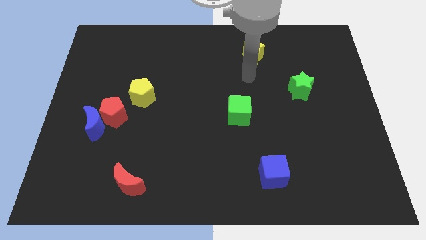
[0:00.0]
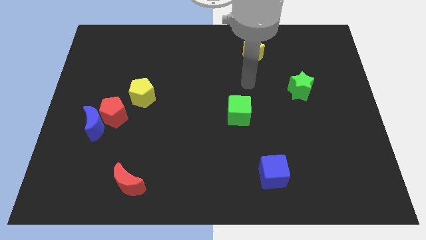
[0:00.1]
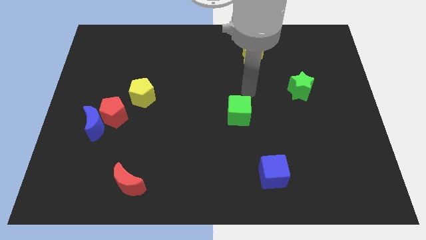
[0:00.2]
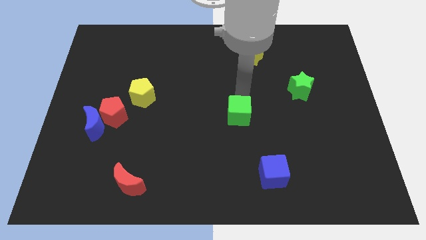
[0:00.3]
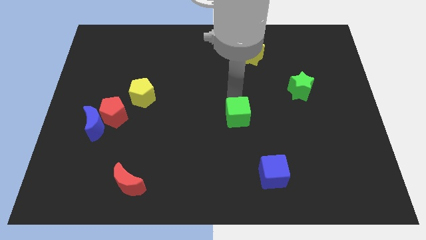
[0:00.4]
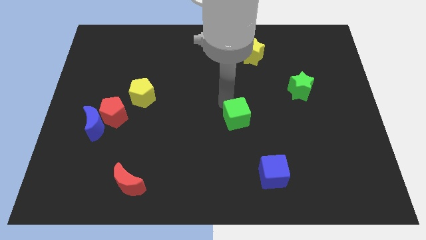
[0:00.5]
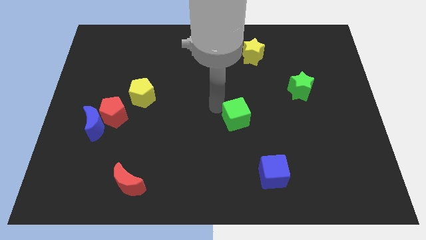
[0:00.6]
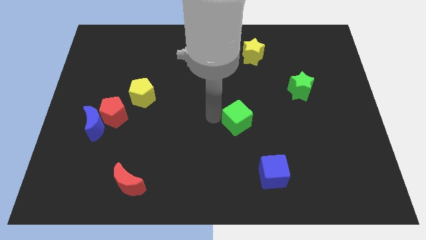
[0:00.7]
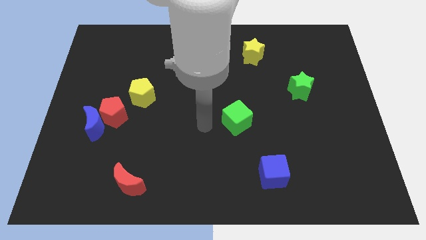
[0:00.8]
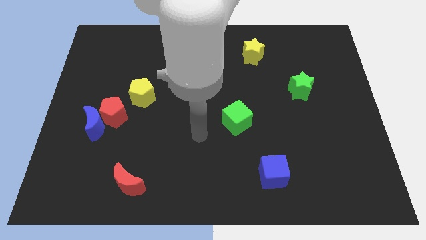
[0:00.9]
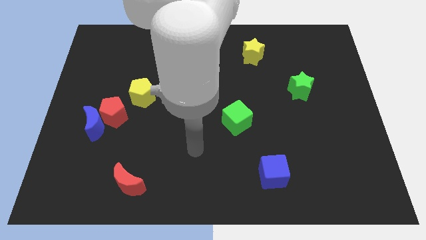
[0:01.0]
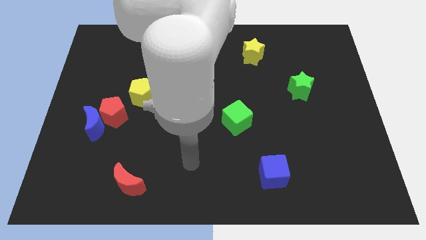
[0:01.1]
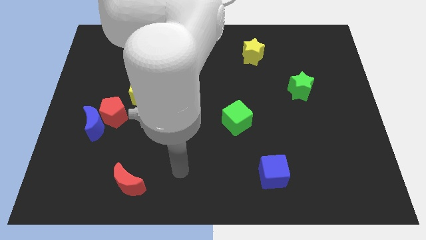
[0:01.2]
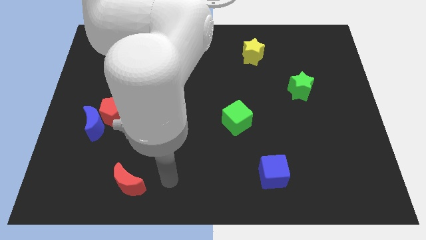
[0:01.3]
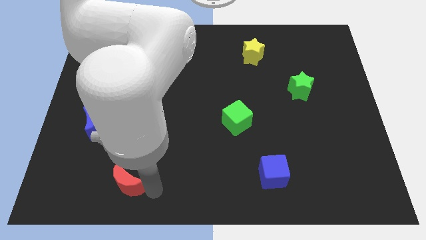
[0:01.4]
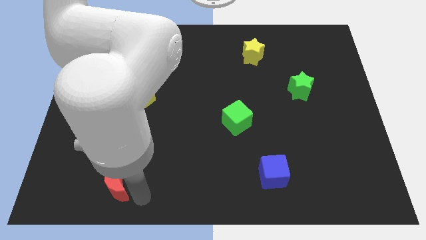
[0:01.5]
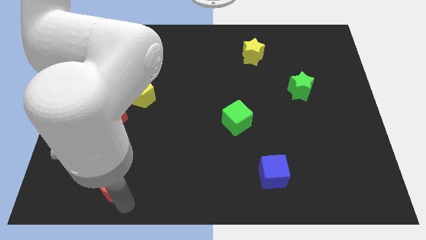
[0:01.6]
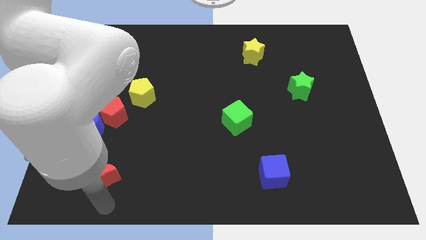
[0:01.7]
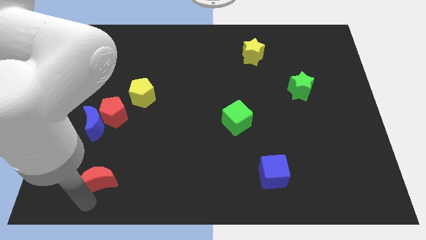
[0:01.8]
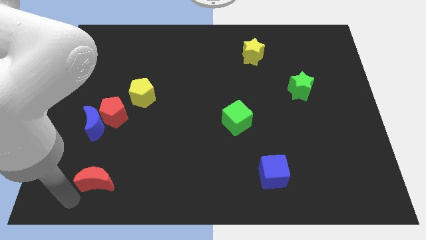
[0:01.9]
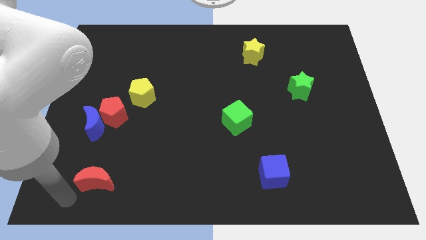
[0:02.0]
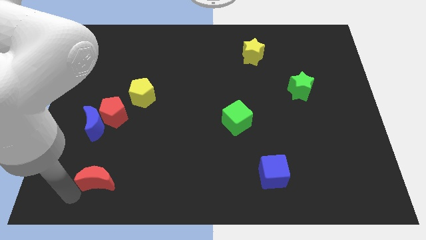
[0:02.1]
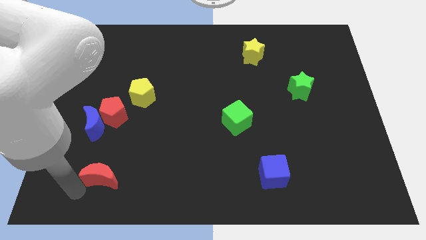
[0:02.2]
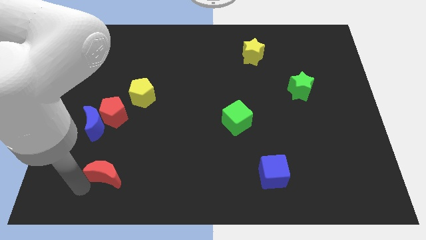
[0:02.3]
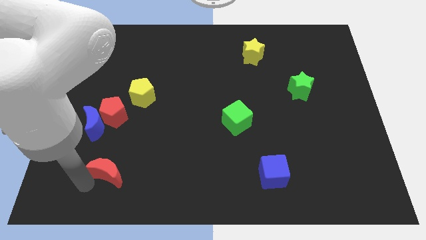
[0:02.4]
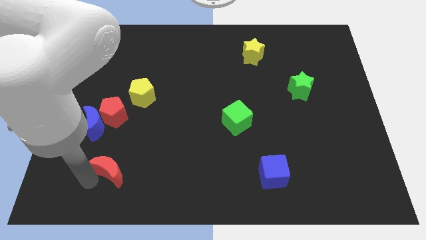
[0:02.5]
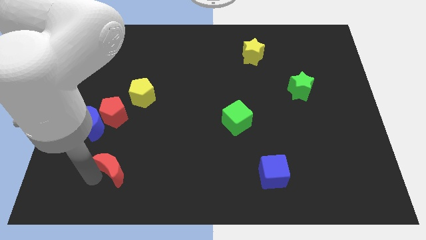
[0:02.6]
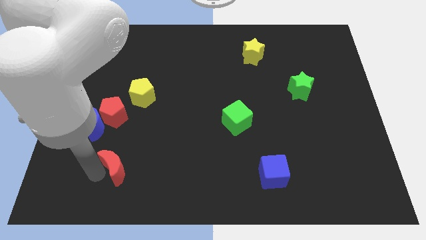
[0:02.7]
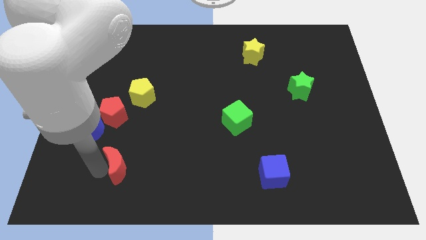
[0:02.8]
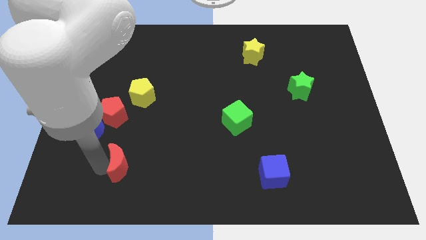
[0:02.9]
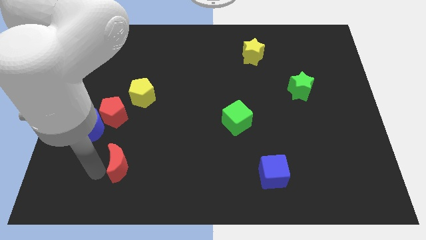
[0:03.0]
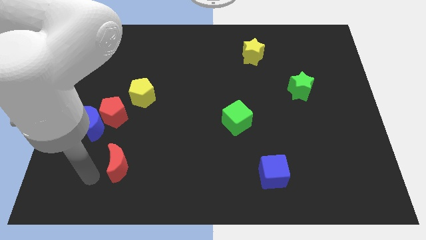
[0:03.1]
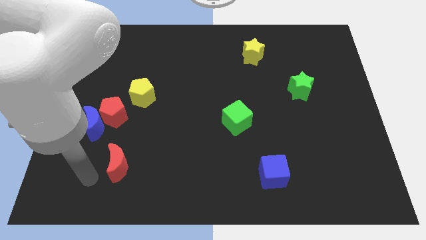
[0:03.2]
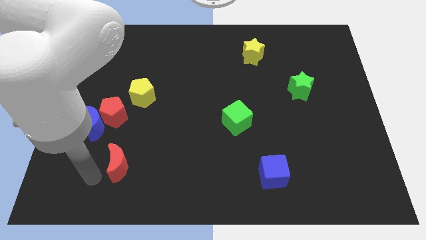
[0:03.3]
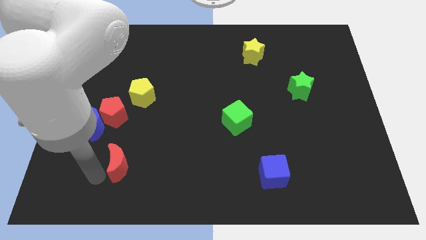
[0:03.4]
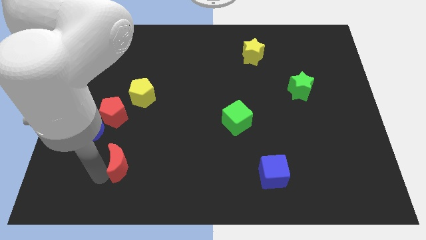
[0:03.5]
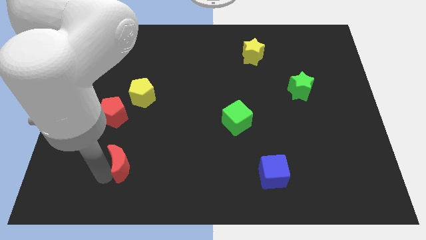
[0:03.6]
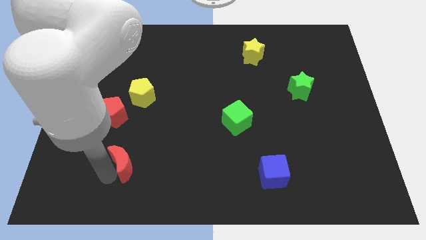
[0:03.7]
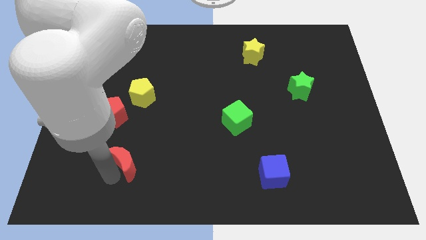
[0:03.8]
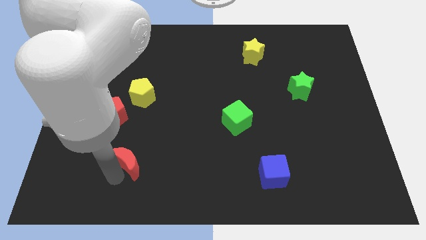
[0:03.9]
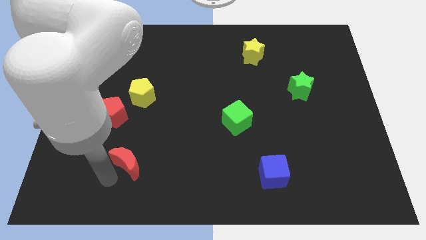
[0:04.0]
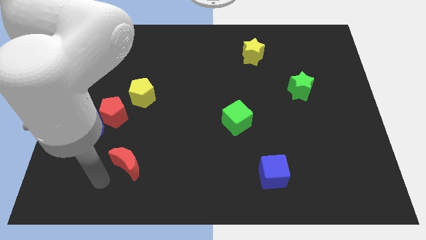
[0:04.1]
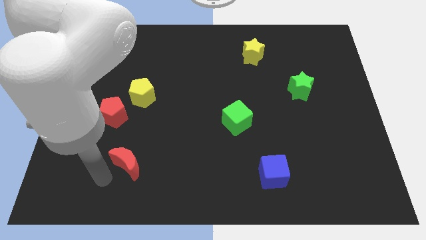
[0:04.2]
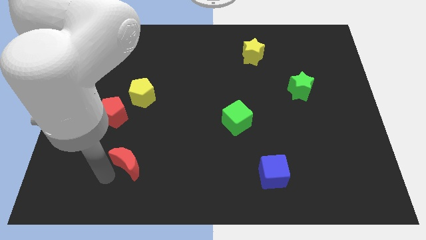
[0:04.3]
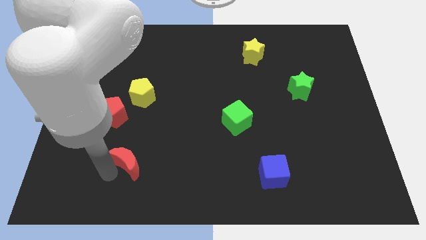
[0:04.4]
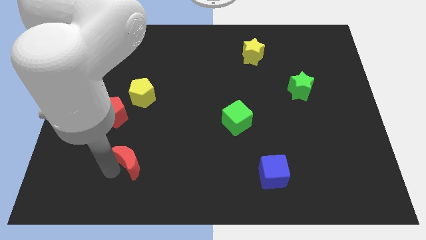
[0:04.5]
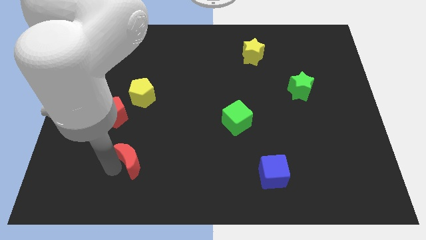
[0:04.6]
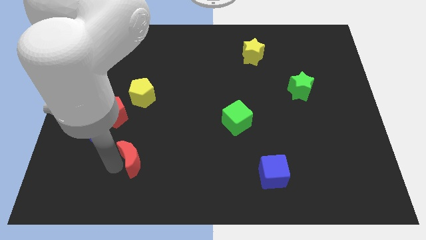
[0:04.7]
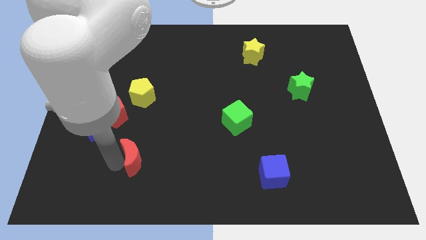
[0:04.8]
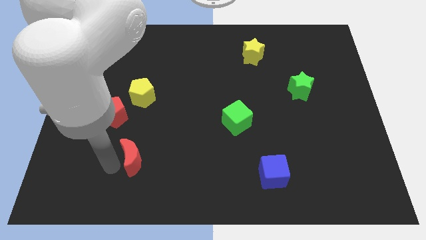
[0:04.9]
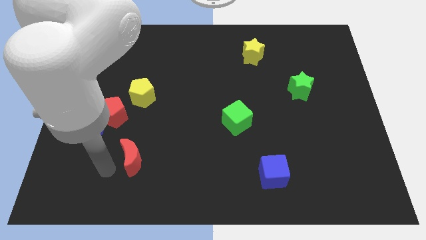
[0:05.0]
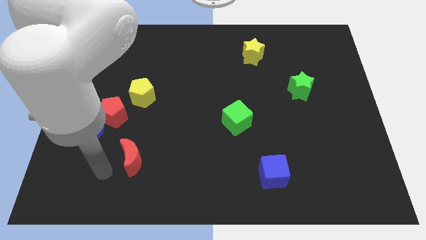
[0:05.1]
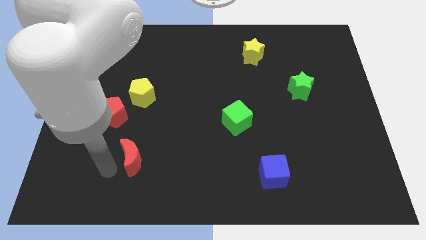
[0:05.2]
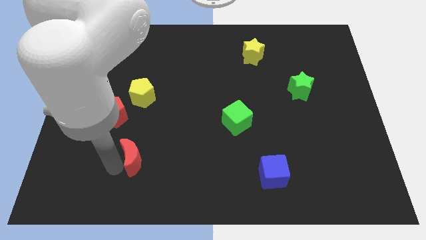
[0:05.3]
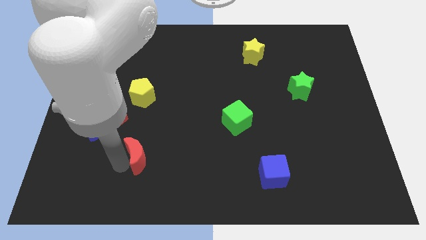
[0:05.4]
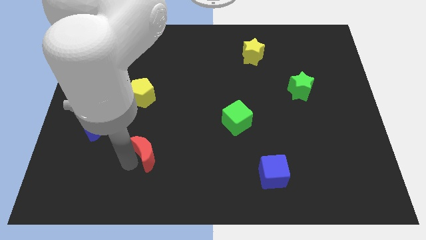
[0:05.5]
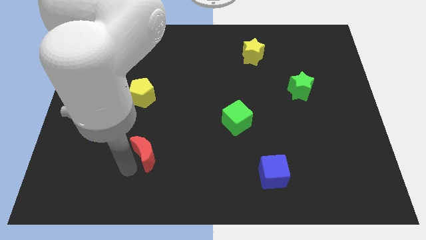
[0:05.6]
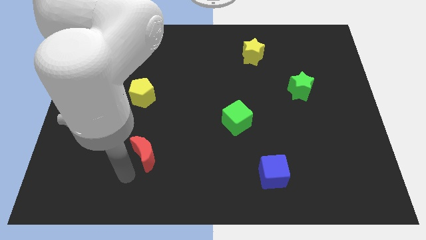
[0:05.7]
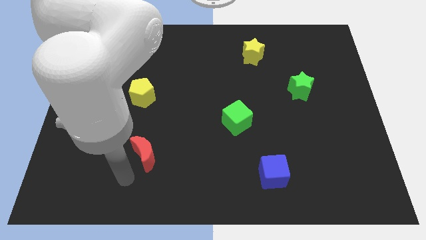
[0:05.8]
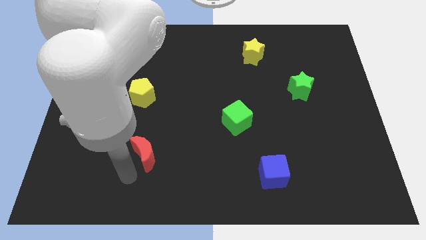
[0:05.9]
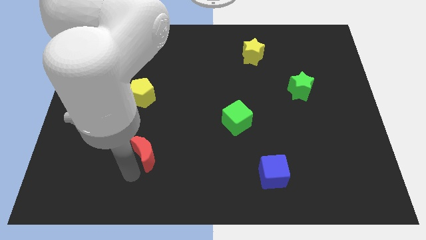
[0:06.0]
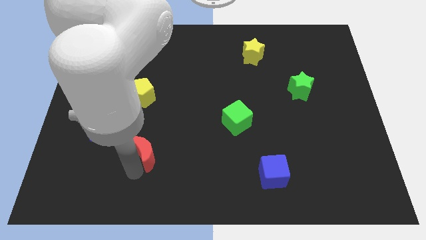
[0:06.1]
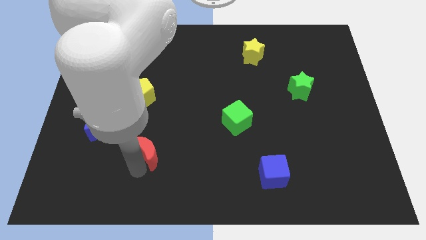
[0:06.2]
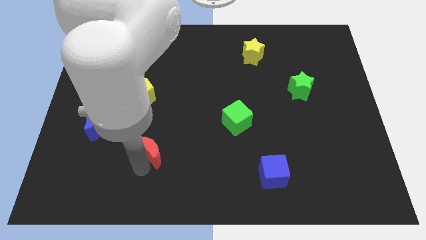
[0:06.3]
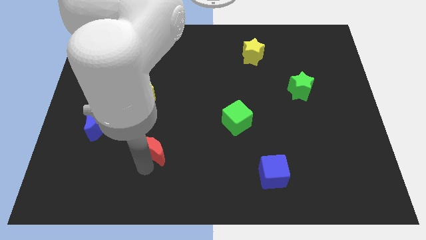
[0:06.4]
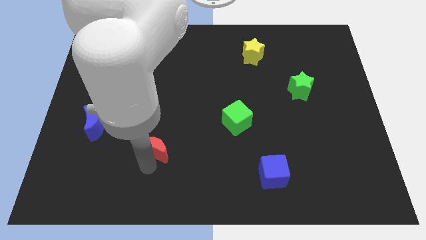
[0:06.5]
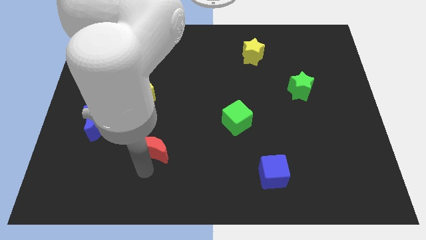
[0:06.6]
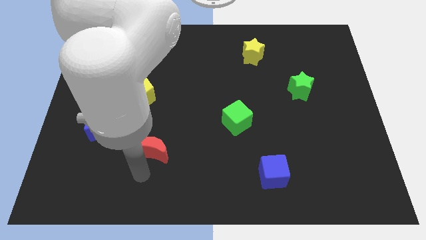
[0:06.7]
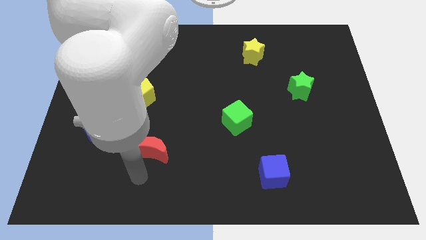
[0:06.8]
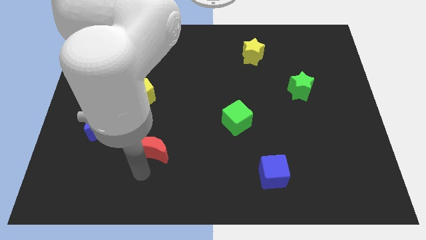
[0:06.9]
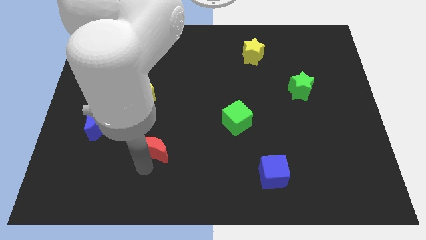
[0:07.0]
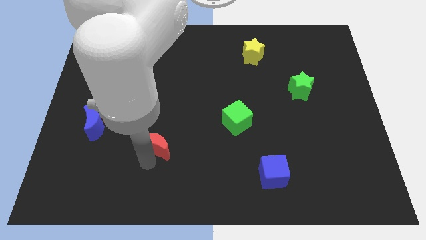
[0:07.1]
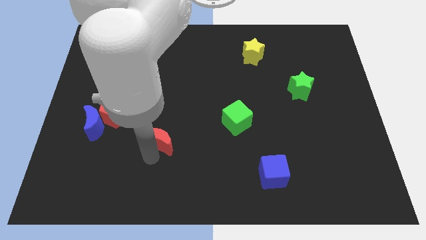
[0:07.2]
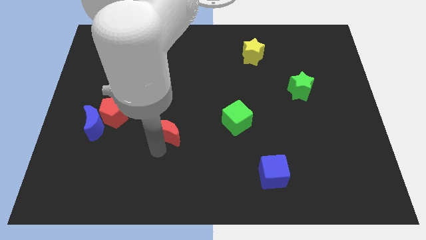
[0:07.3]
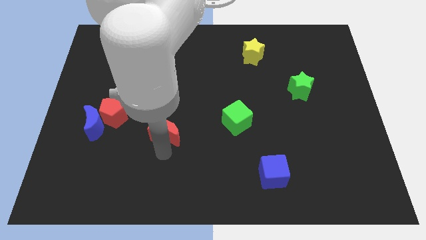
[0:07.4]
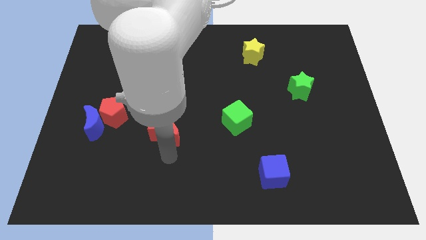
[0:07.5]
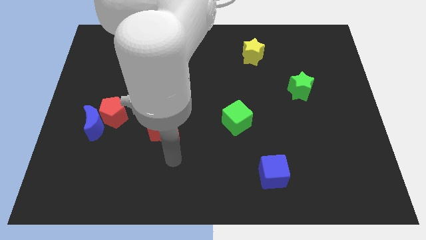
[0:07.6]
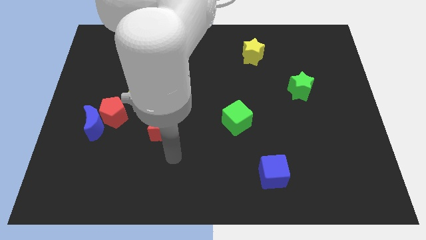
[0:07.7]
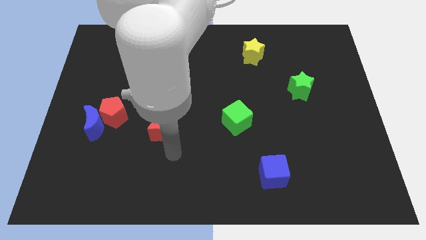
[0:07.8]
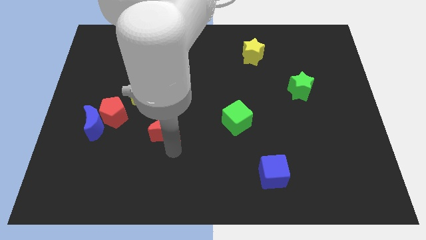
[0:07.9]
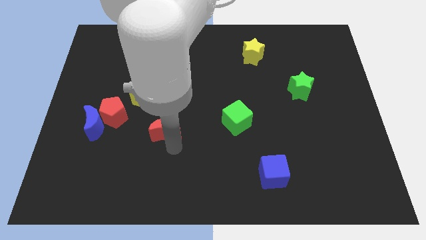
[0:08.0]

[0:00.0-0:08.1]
move the red moon to the right side of the red pentagon

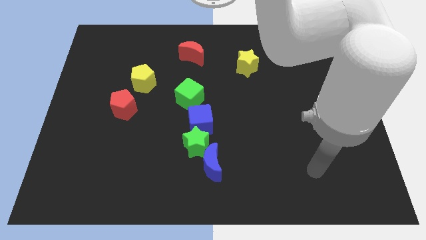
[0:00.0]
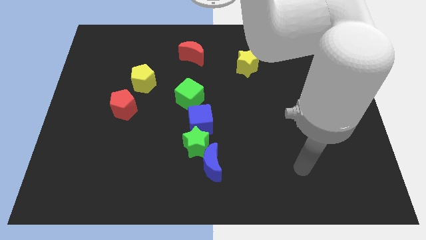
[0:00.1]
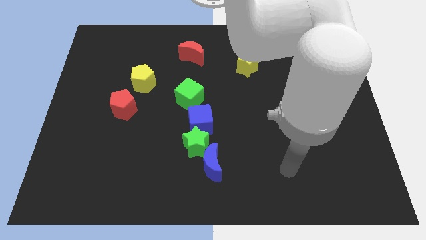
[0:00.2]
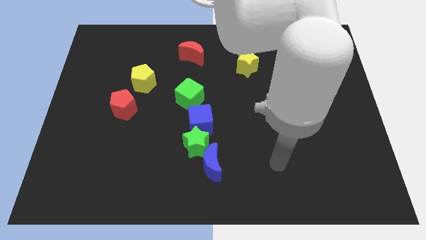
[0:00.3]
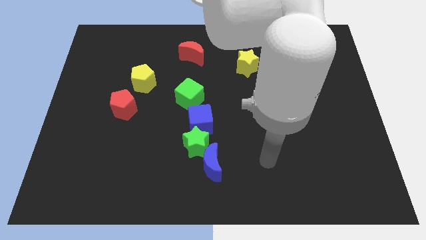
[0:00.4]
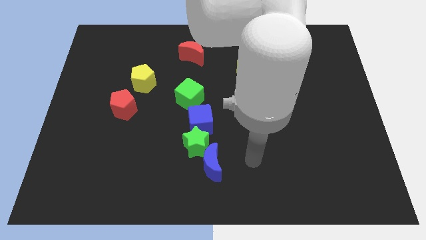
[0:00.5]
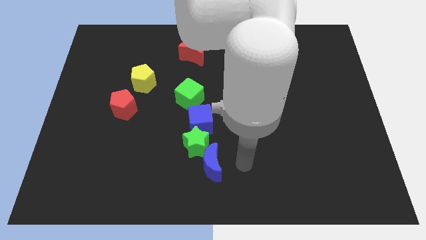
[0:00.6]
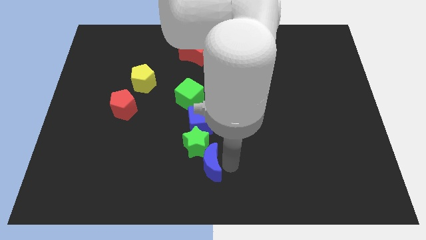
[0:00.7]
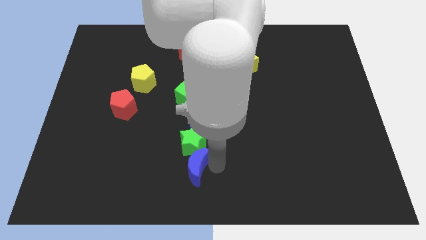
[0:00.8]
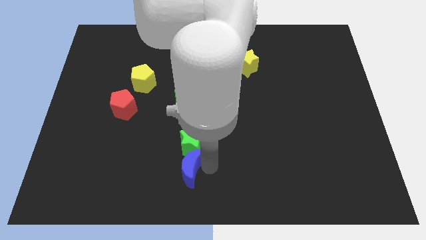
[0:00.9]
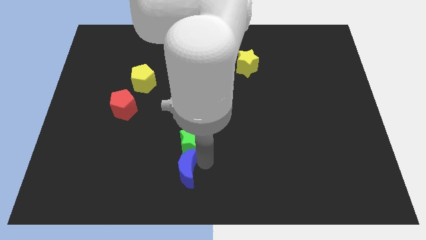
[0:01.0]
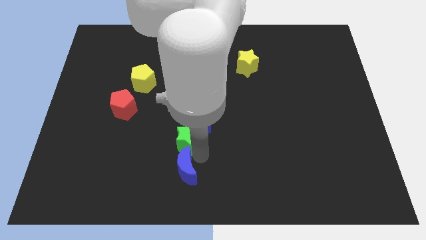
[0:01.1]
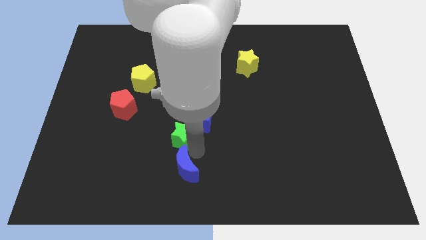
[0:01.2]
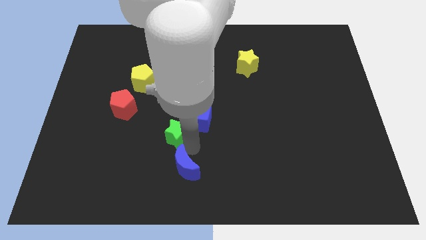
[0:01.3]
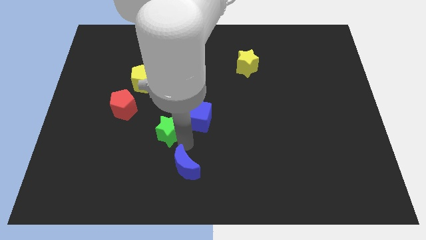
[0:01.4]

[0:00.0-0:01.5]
slide the green star diagonally down and to the left of the green cube
